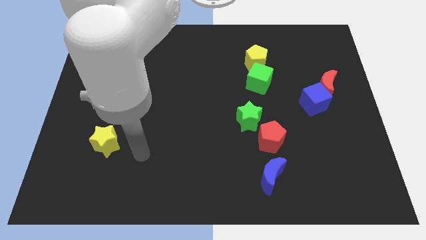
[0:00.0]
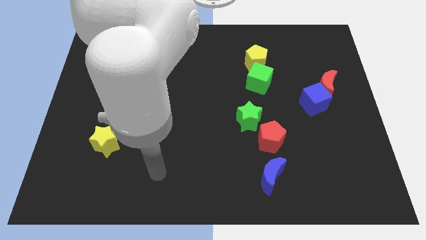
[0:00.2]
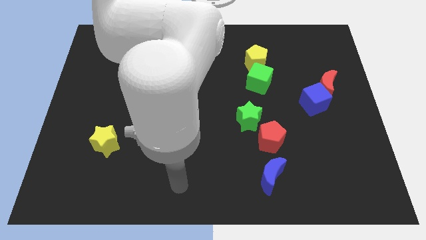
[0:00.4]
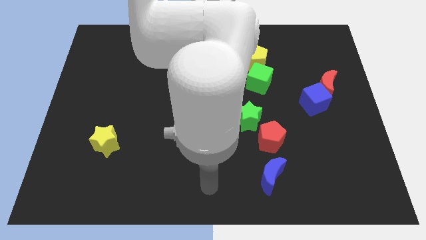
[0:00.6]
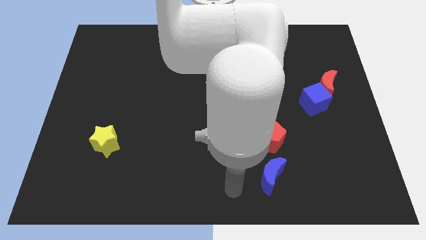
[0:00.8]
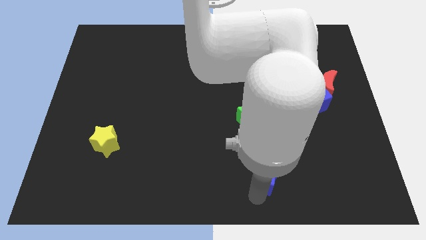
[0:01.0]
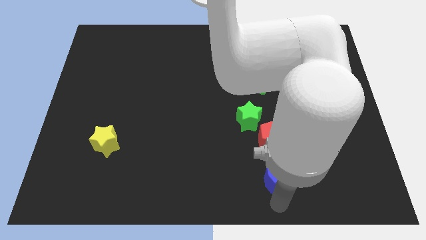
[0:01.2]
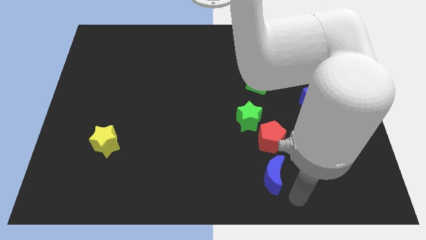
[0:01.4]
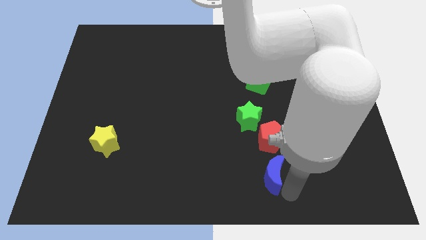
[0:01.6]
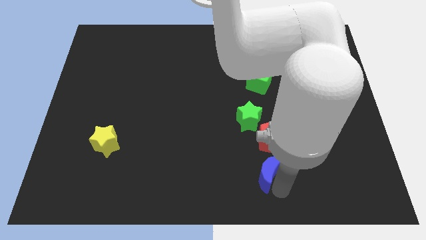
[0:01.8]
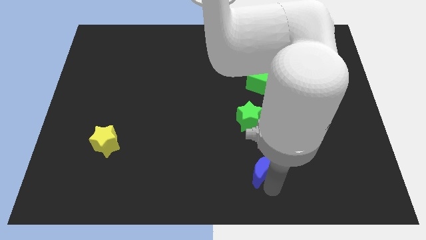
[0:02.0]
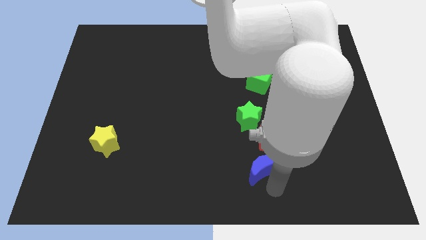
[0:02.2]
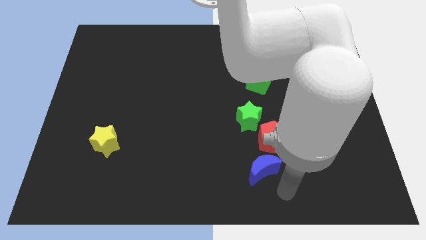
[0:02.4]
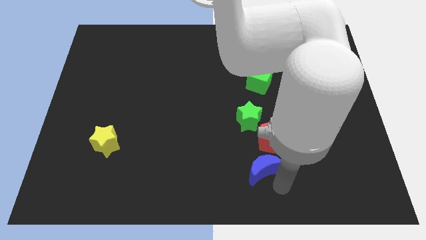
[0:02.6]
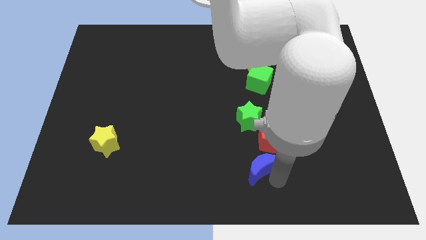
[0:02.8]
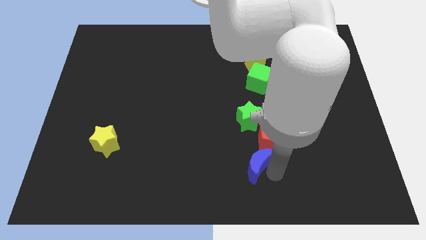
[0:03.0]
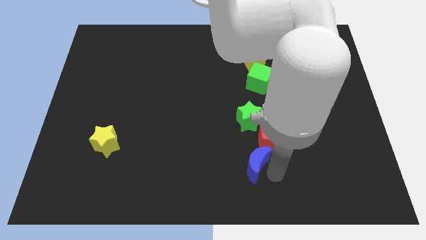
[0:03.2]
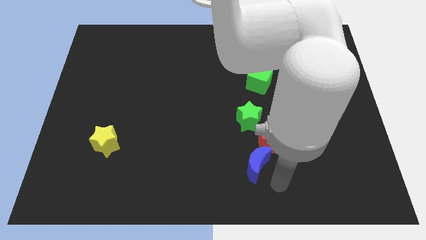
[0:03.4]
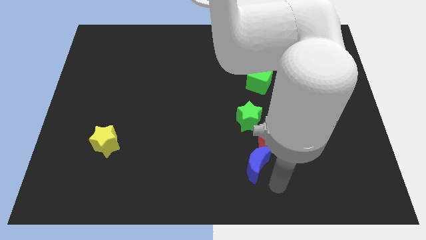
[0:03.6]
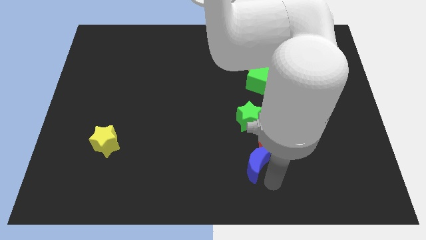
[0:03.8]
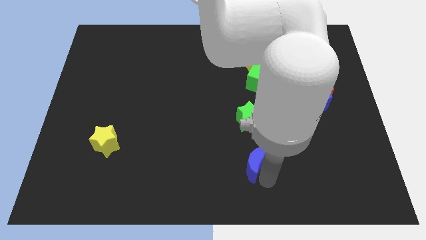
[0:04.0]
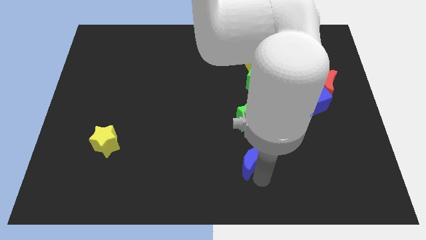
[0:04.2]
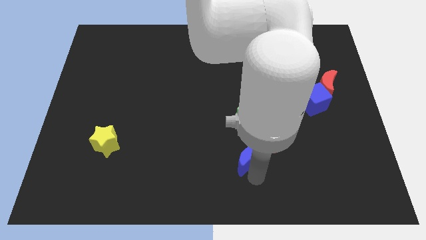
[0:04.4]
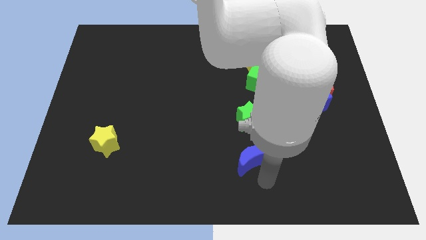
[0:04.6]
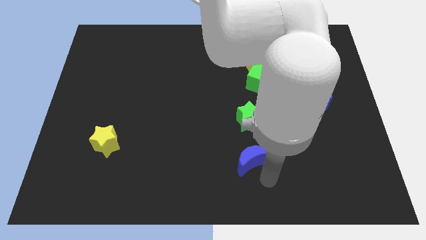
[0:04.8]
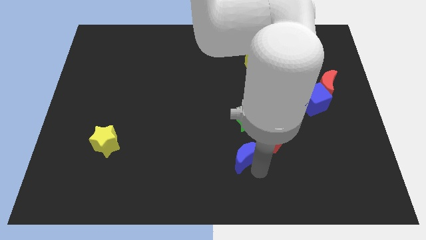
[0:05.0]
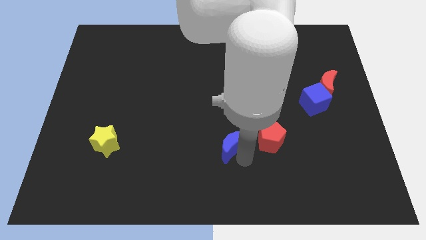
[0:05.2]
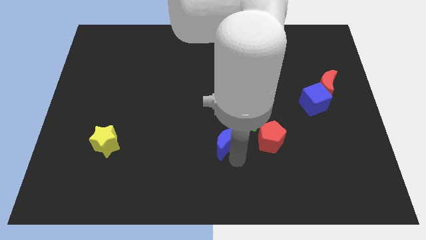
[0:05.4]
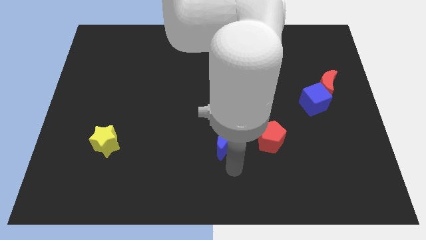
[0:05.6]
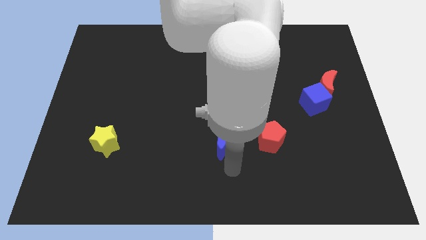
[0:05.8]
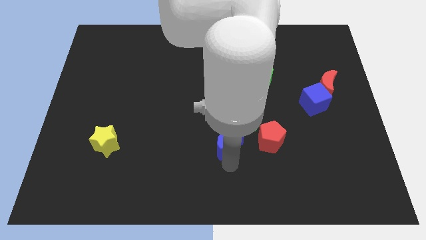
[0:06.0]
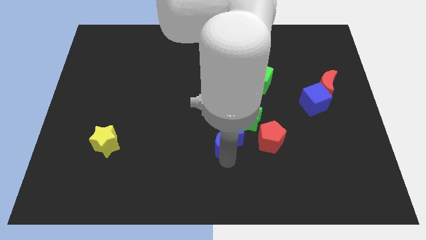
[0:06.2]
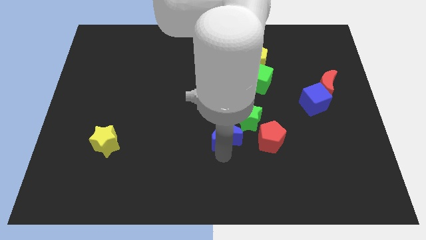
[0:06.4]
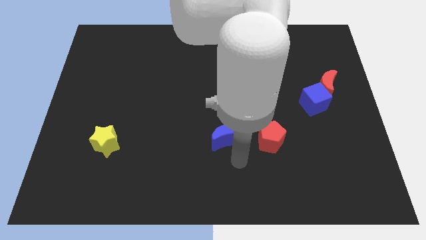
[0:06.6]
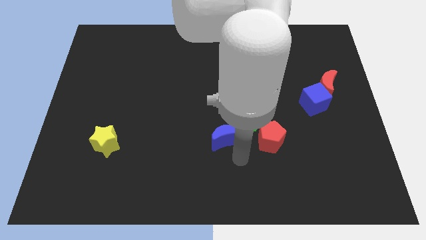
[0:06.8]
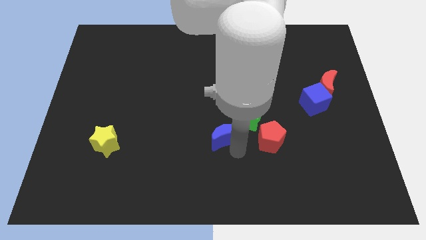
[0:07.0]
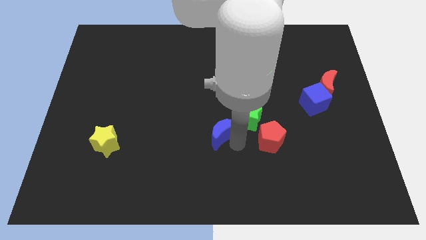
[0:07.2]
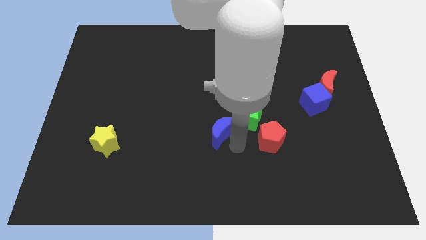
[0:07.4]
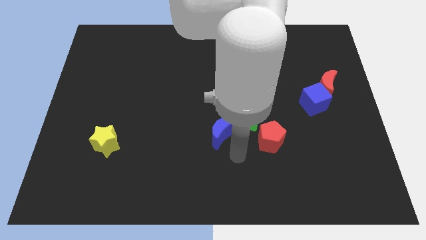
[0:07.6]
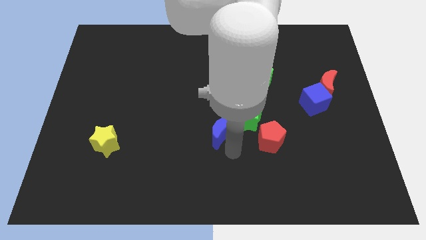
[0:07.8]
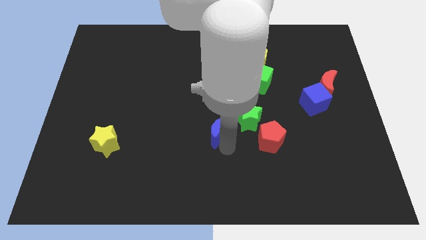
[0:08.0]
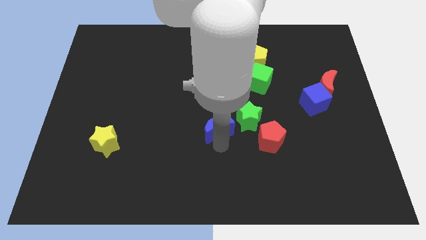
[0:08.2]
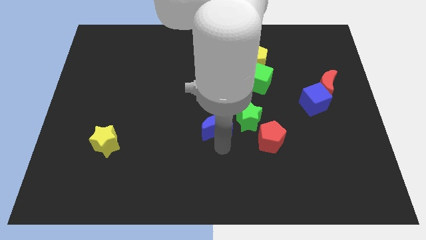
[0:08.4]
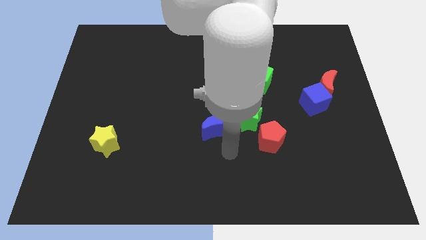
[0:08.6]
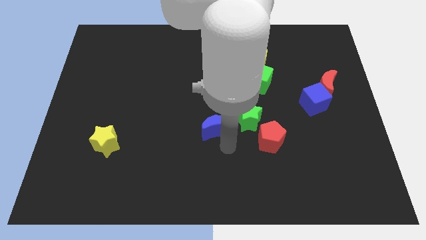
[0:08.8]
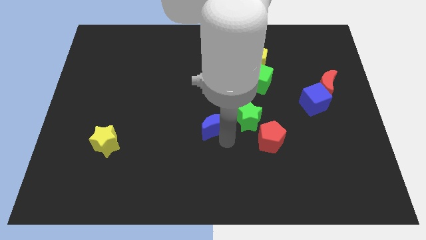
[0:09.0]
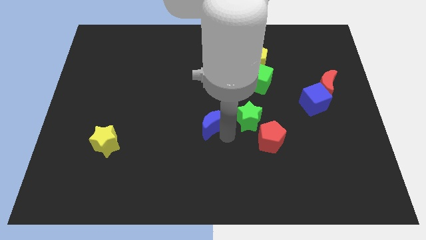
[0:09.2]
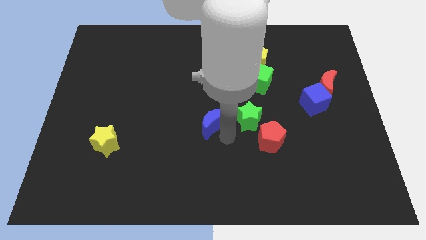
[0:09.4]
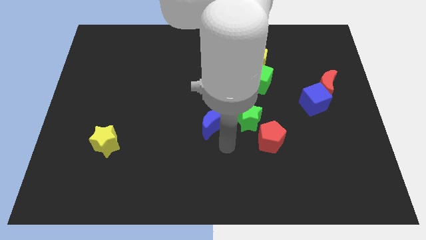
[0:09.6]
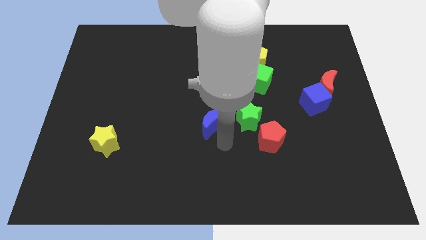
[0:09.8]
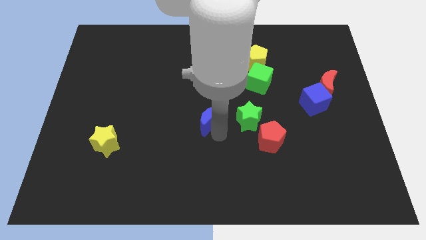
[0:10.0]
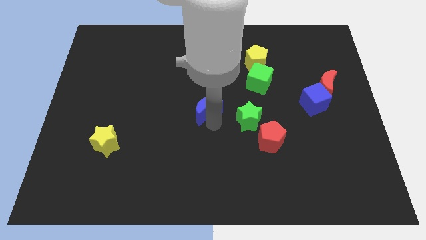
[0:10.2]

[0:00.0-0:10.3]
slide the blue moon upwards and to the left

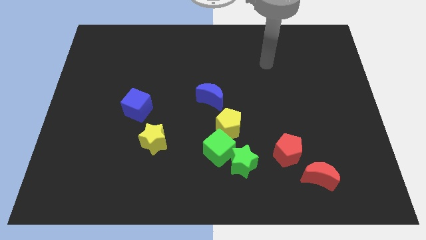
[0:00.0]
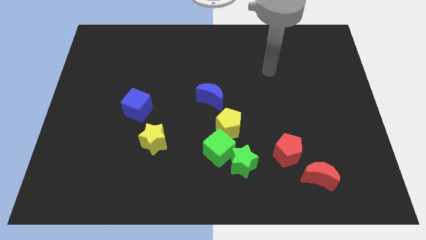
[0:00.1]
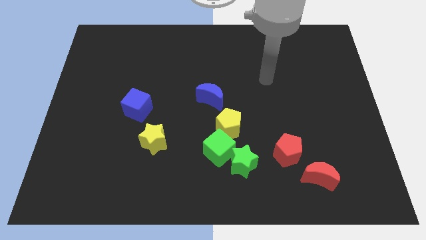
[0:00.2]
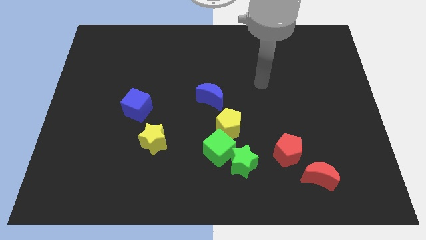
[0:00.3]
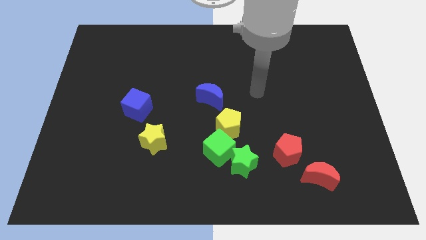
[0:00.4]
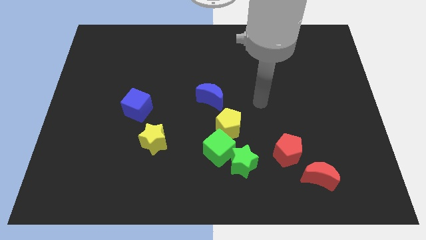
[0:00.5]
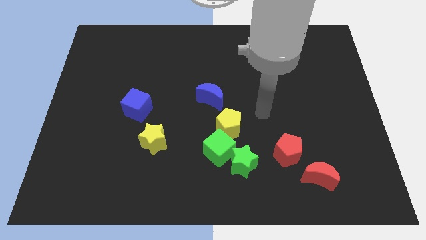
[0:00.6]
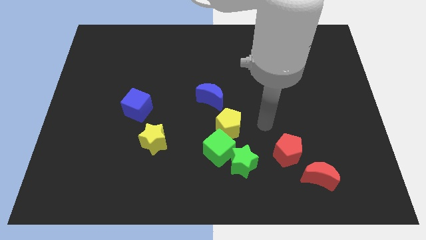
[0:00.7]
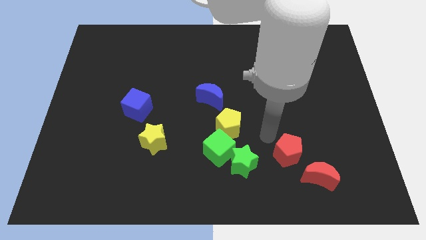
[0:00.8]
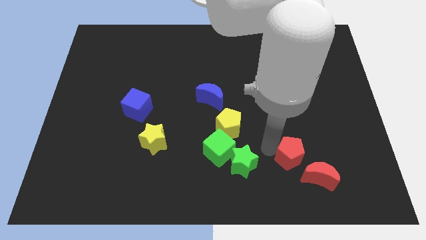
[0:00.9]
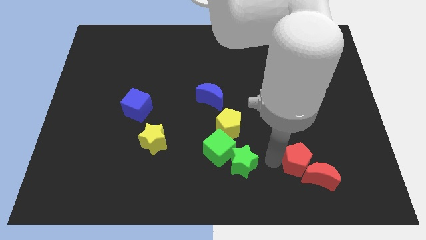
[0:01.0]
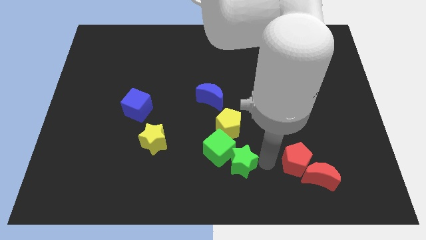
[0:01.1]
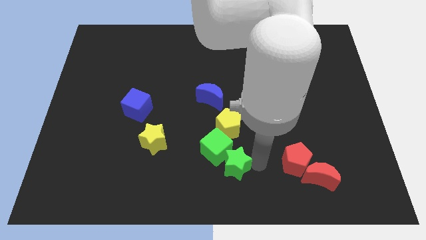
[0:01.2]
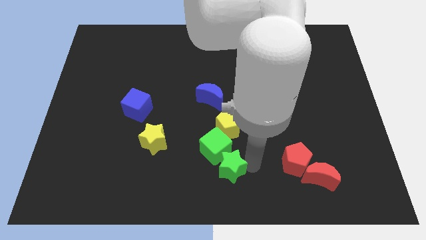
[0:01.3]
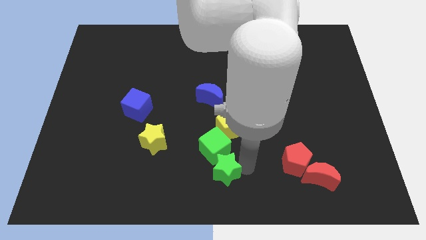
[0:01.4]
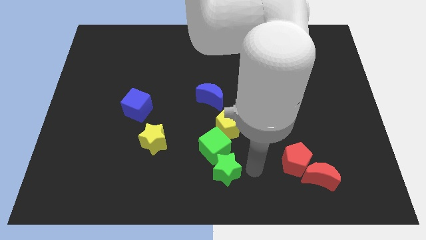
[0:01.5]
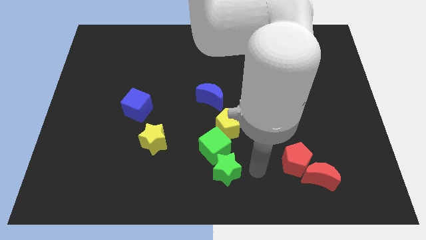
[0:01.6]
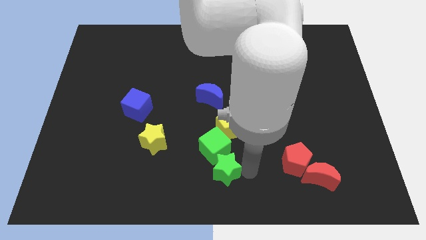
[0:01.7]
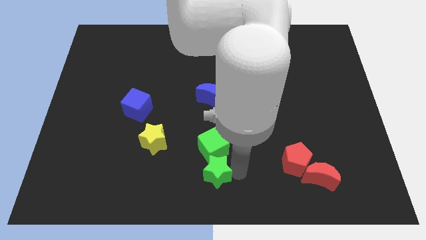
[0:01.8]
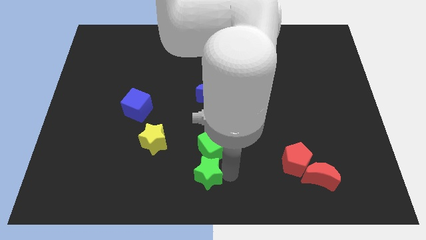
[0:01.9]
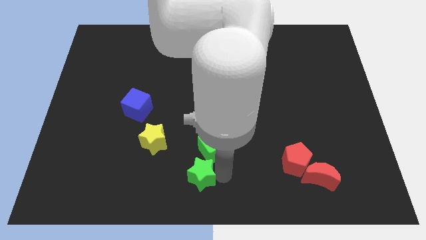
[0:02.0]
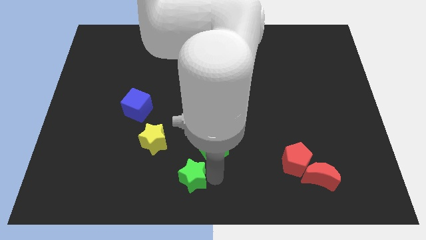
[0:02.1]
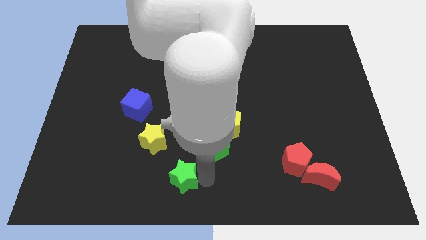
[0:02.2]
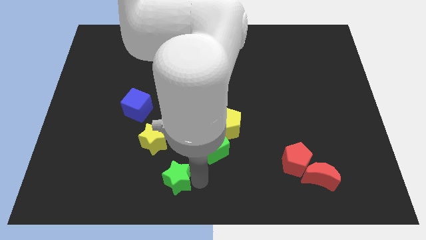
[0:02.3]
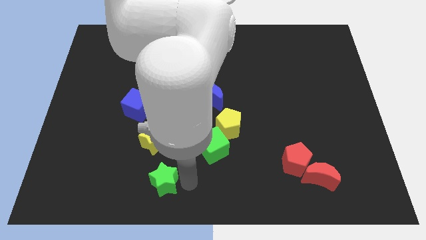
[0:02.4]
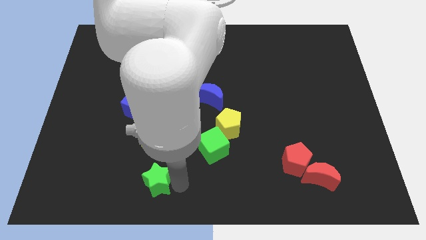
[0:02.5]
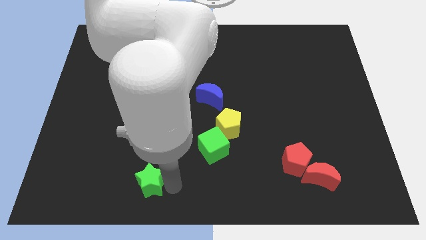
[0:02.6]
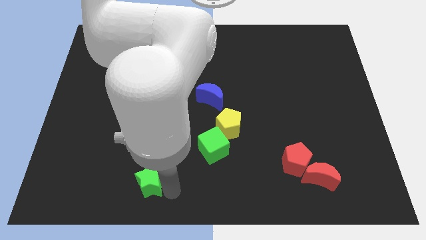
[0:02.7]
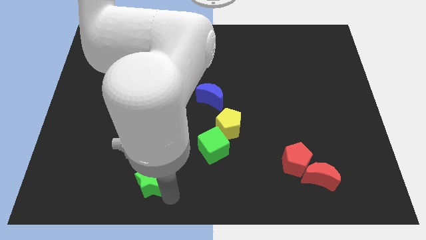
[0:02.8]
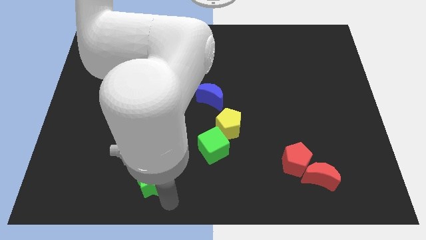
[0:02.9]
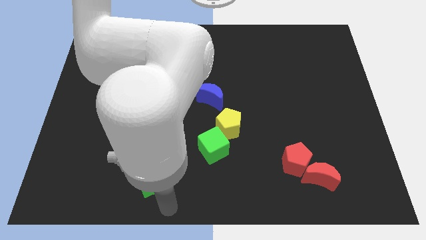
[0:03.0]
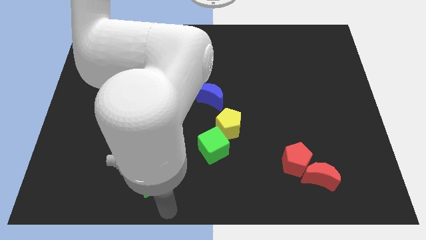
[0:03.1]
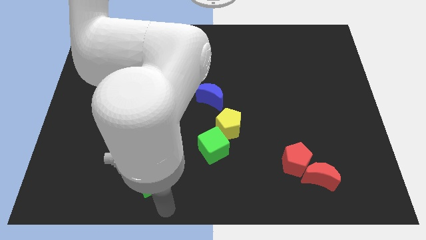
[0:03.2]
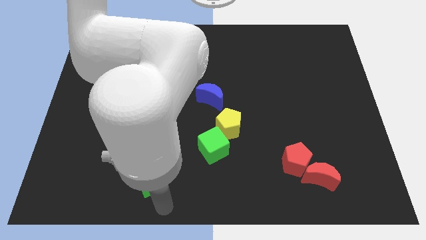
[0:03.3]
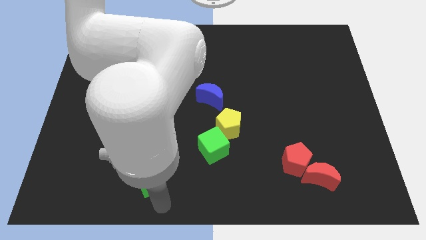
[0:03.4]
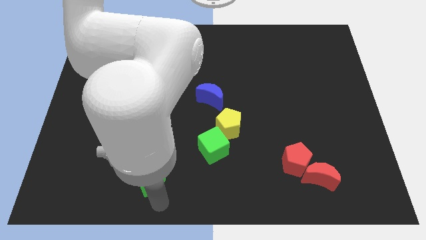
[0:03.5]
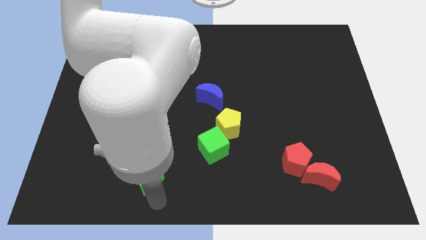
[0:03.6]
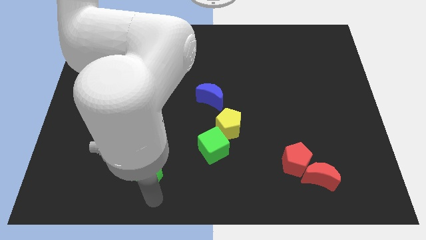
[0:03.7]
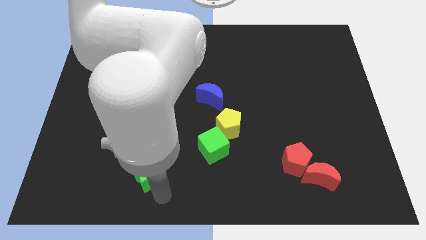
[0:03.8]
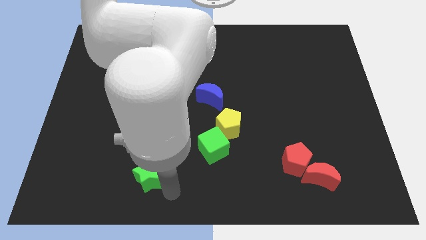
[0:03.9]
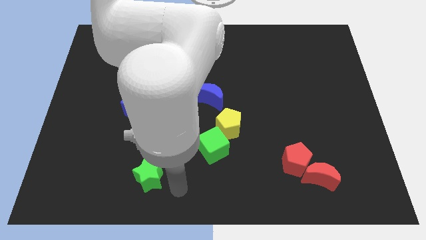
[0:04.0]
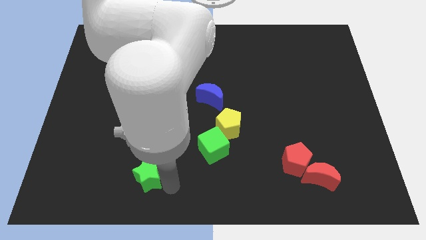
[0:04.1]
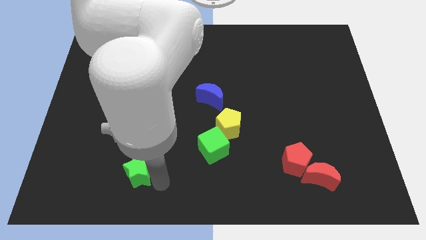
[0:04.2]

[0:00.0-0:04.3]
slide the green star to the left
